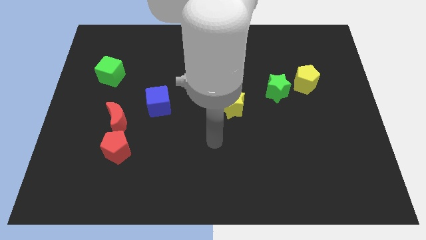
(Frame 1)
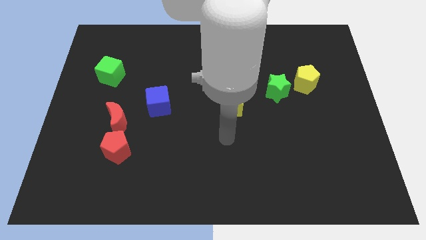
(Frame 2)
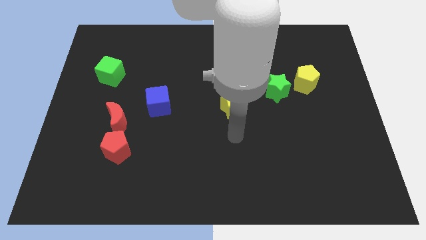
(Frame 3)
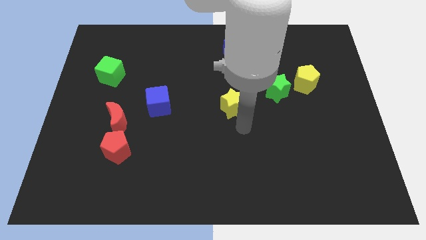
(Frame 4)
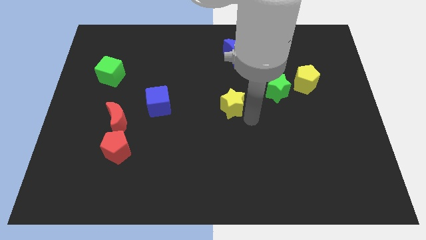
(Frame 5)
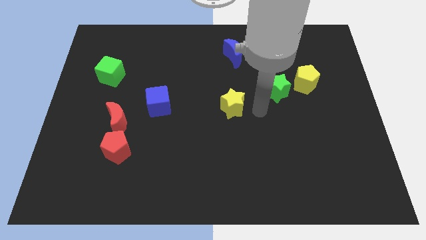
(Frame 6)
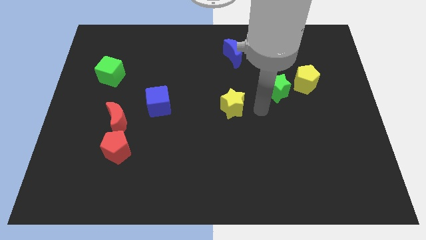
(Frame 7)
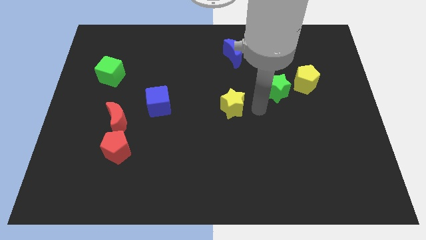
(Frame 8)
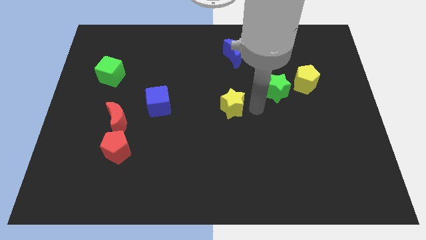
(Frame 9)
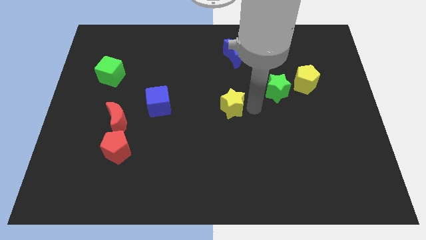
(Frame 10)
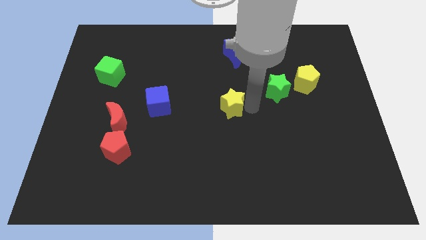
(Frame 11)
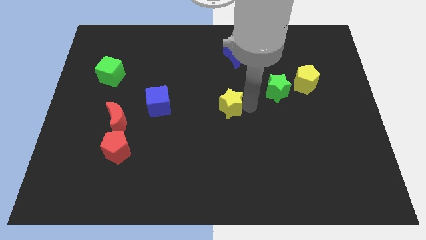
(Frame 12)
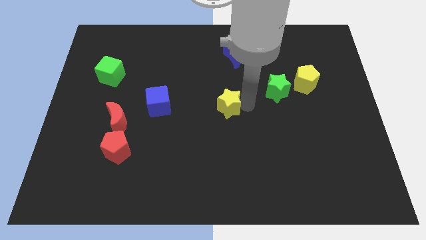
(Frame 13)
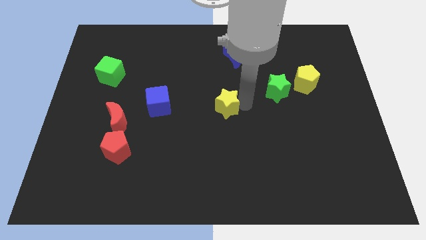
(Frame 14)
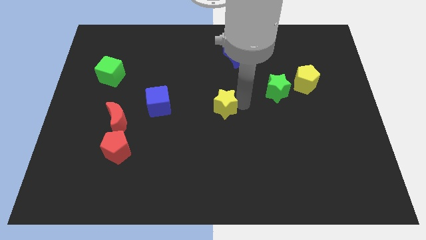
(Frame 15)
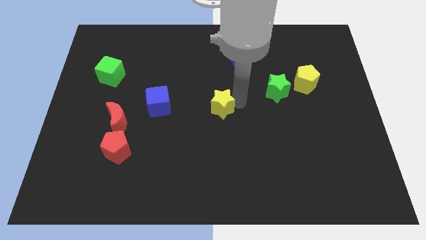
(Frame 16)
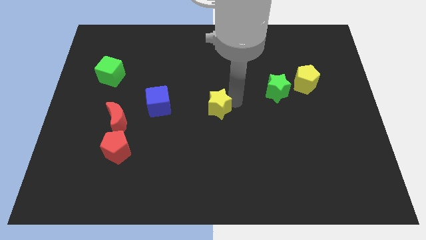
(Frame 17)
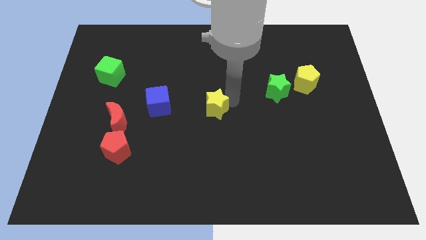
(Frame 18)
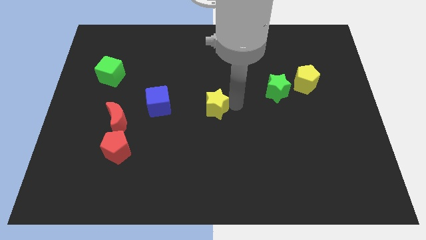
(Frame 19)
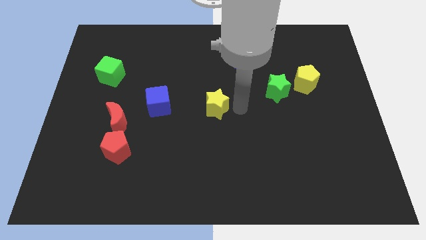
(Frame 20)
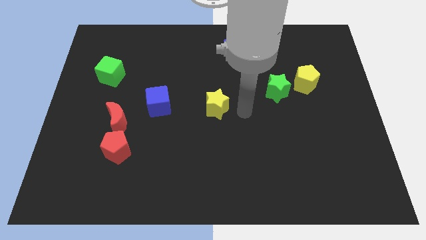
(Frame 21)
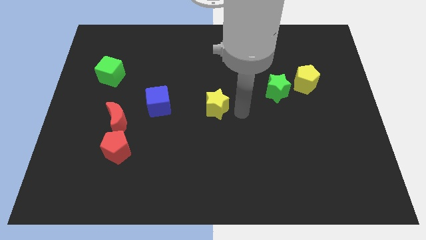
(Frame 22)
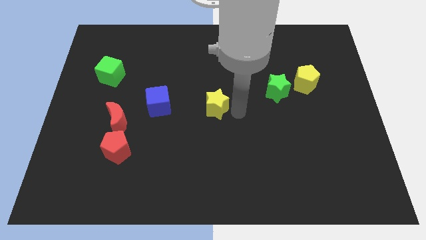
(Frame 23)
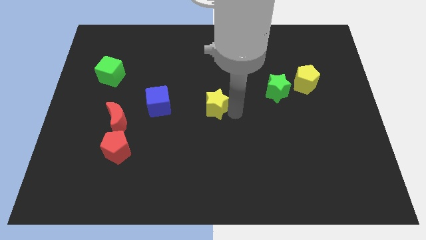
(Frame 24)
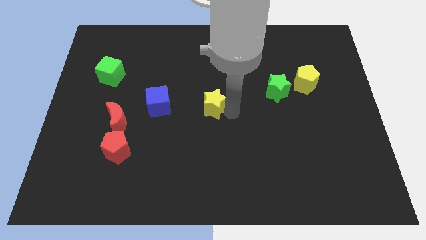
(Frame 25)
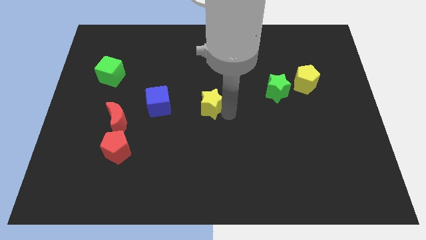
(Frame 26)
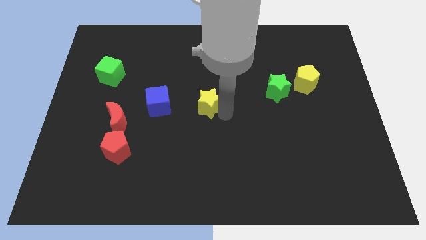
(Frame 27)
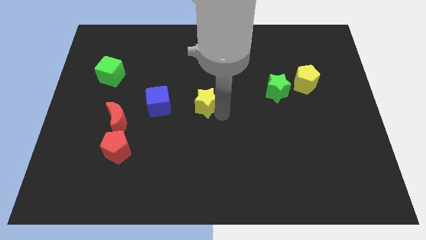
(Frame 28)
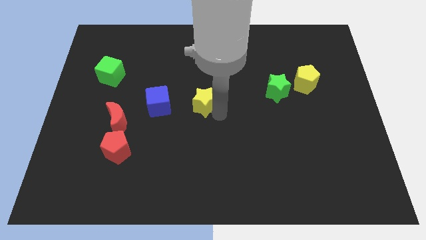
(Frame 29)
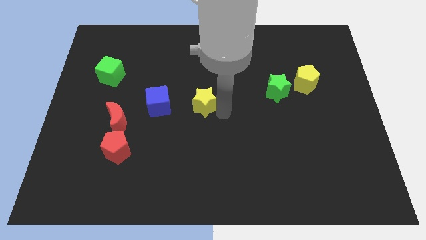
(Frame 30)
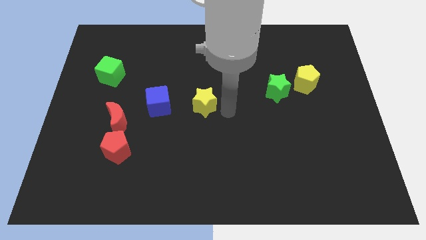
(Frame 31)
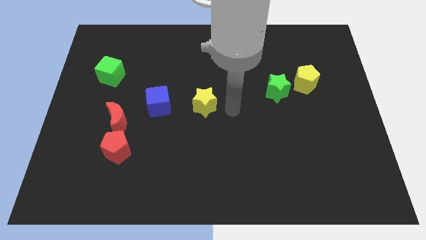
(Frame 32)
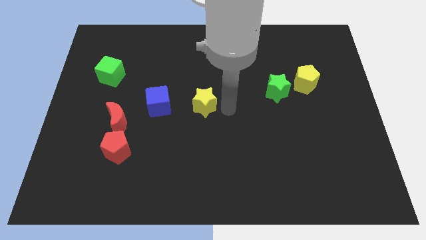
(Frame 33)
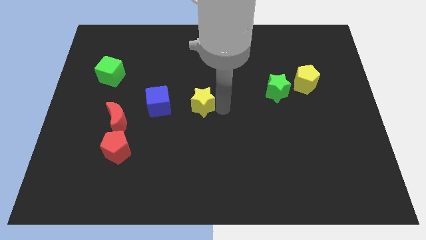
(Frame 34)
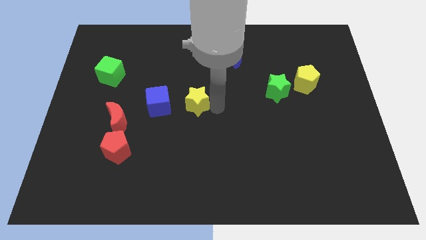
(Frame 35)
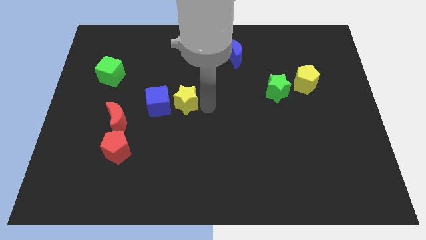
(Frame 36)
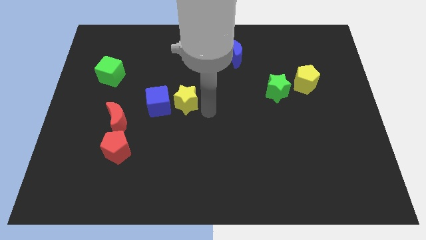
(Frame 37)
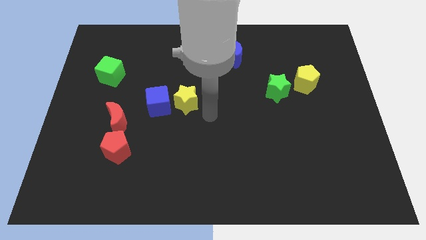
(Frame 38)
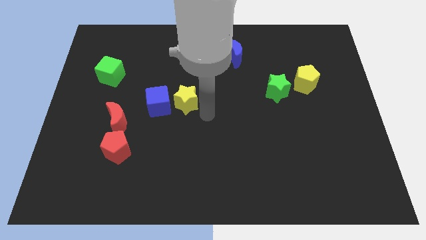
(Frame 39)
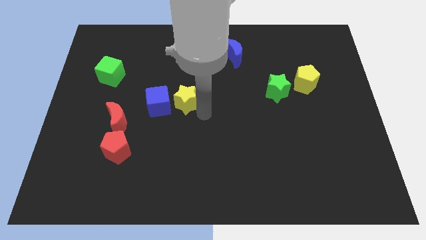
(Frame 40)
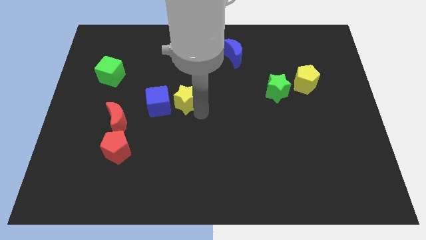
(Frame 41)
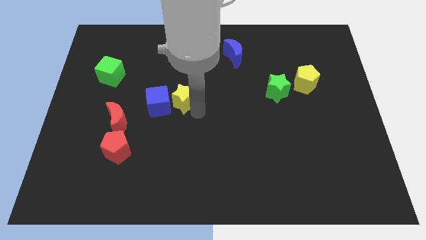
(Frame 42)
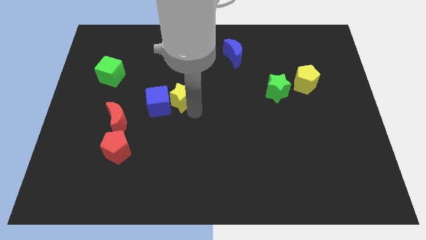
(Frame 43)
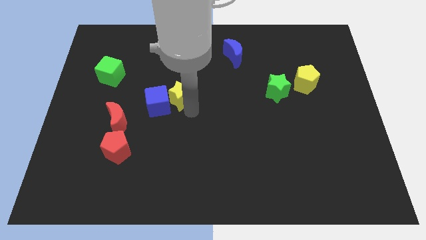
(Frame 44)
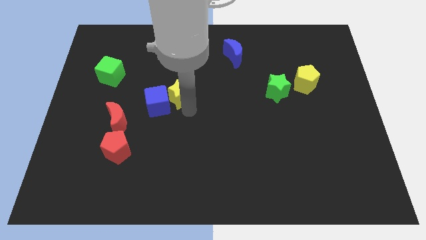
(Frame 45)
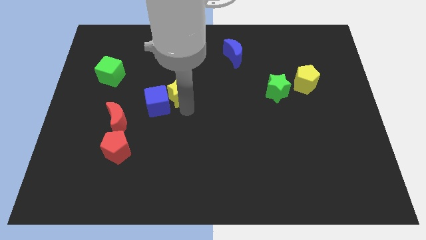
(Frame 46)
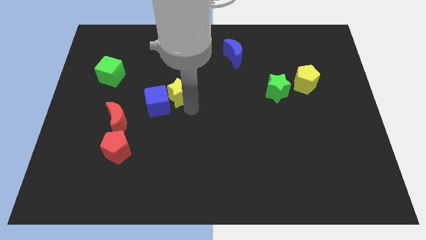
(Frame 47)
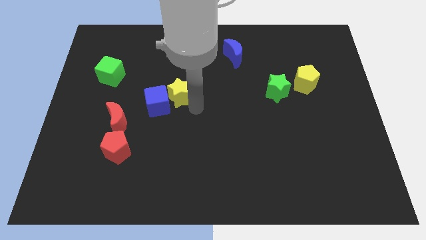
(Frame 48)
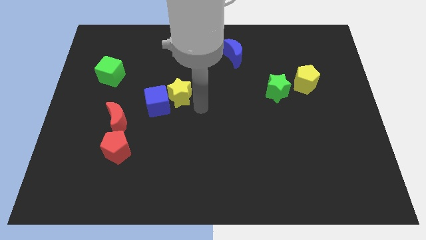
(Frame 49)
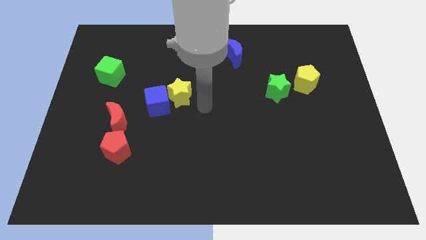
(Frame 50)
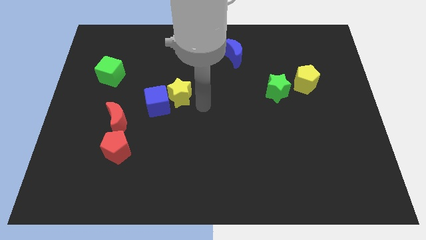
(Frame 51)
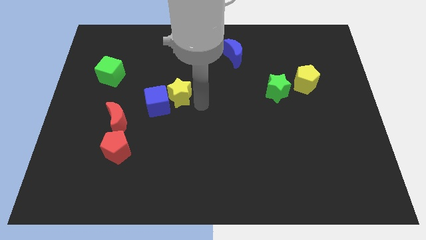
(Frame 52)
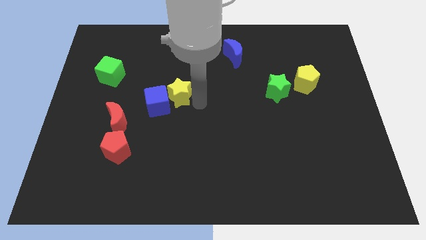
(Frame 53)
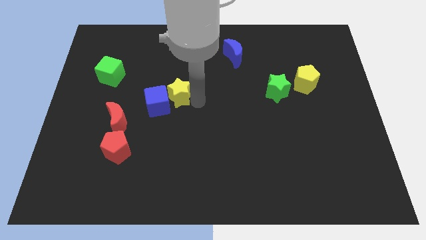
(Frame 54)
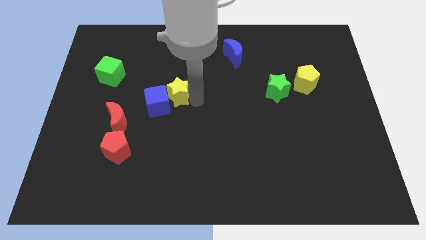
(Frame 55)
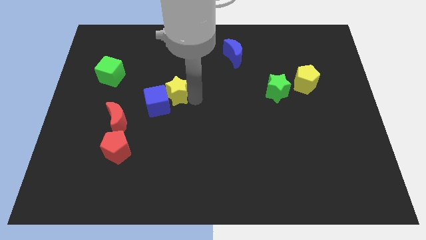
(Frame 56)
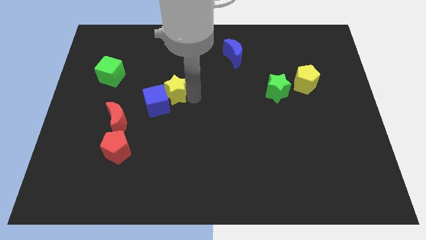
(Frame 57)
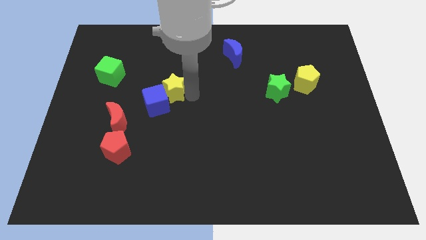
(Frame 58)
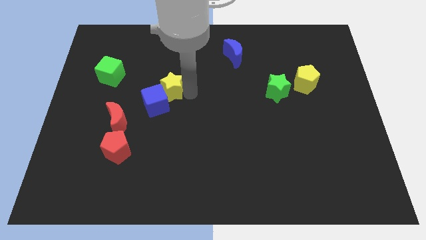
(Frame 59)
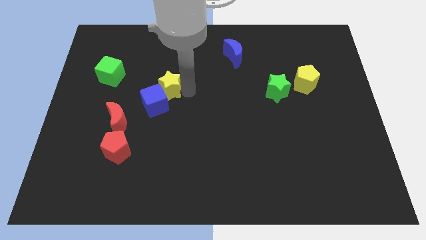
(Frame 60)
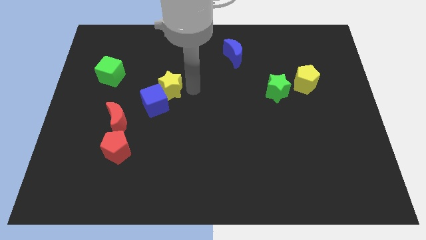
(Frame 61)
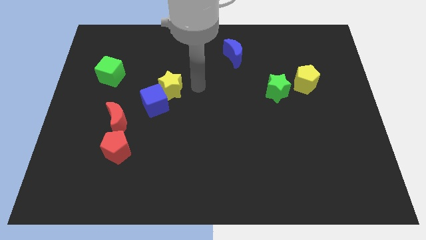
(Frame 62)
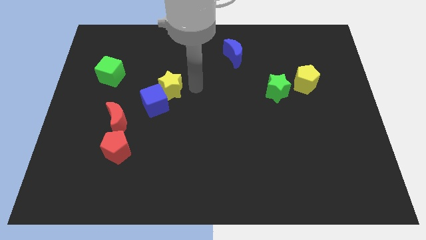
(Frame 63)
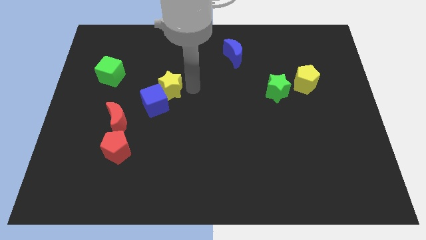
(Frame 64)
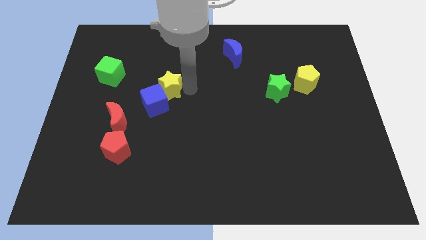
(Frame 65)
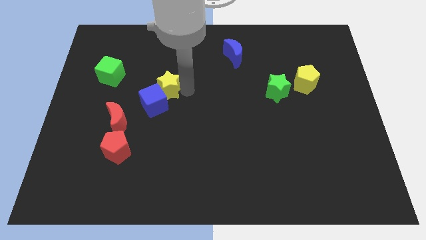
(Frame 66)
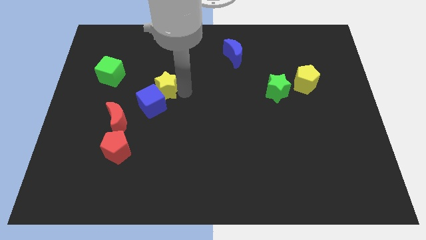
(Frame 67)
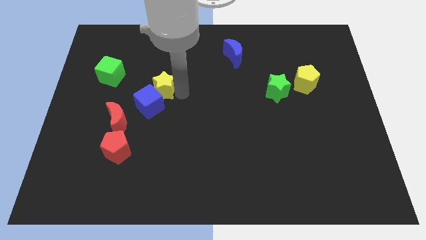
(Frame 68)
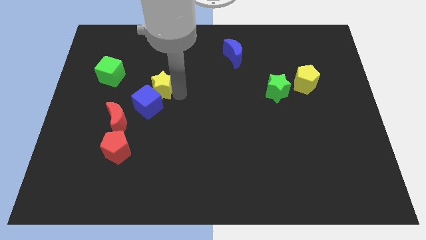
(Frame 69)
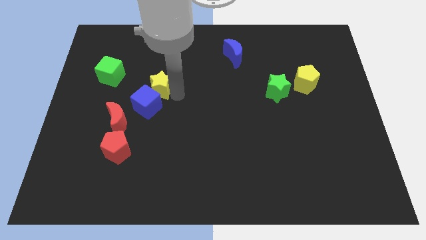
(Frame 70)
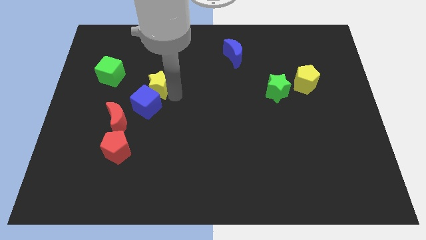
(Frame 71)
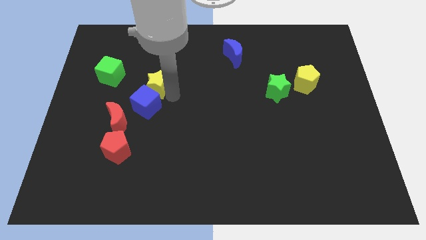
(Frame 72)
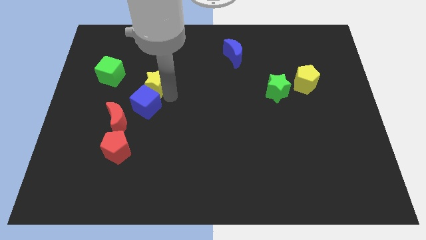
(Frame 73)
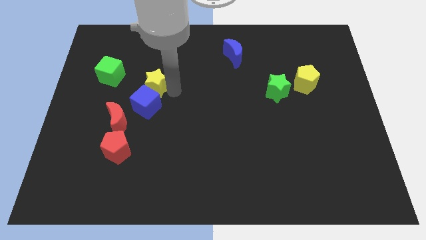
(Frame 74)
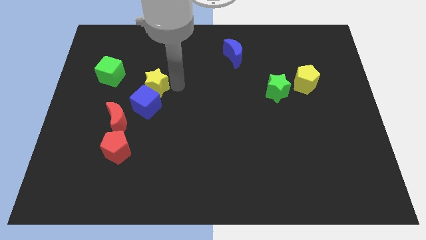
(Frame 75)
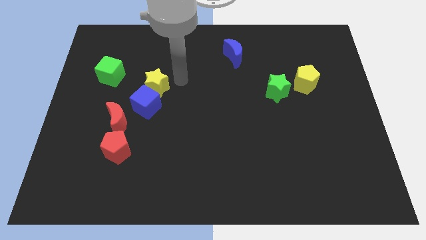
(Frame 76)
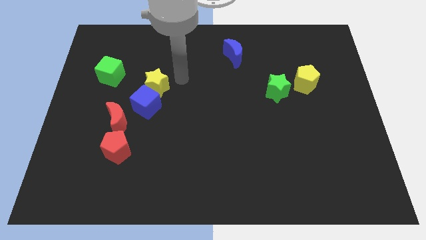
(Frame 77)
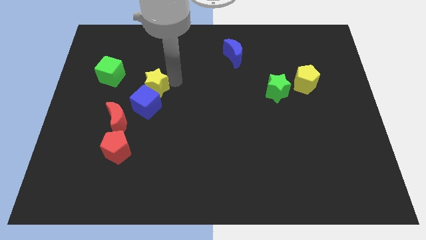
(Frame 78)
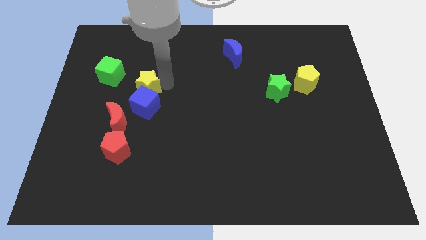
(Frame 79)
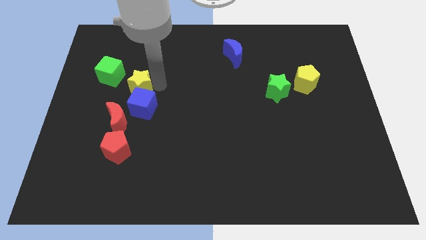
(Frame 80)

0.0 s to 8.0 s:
push the yellow star left

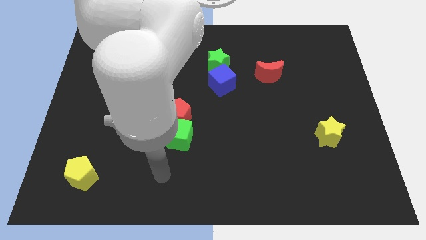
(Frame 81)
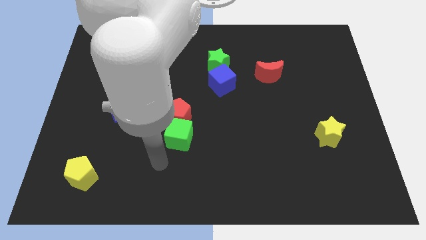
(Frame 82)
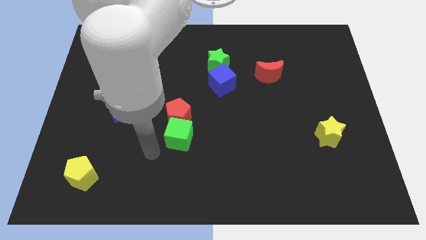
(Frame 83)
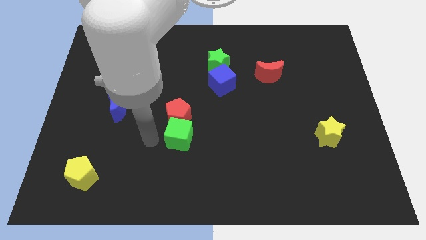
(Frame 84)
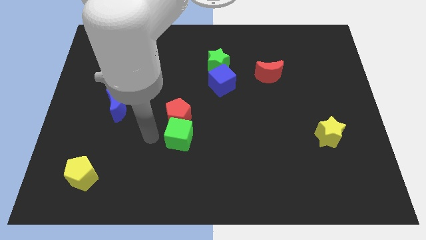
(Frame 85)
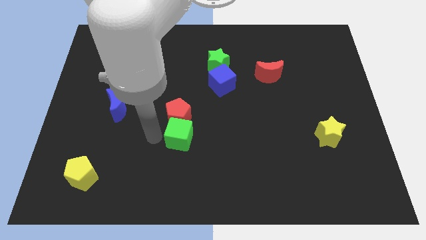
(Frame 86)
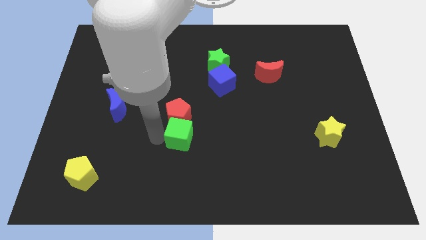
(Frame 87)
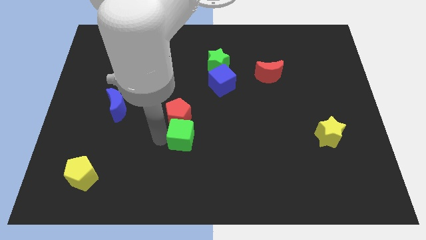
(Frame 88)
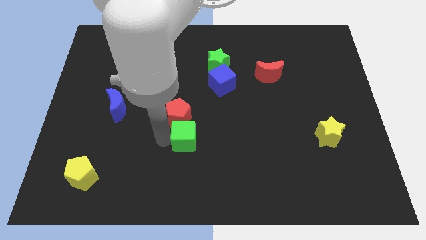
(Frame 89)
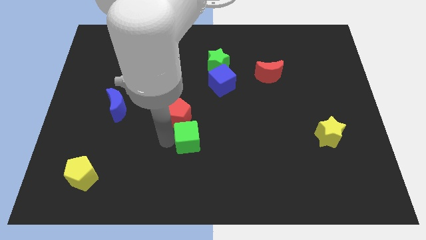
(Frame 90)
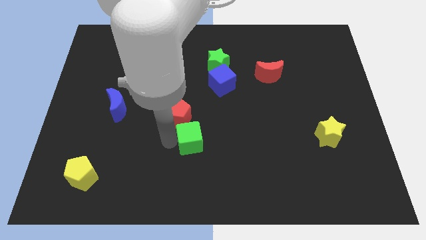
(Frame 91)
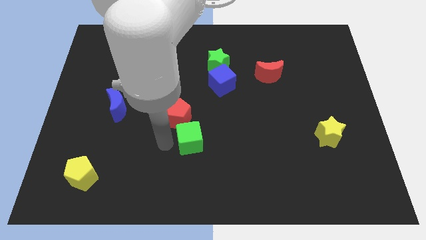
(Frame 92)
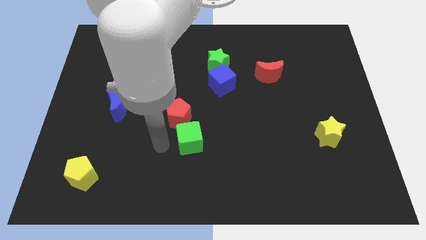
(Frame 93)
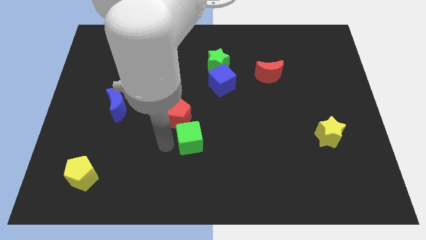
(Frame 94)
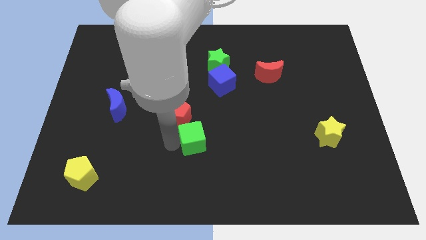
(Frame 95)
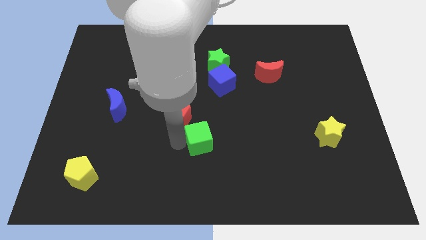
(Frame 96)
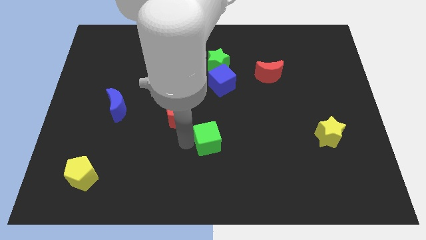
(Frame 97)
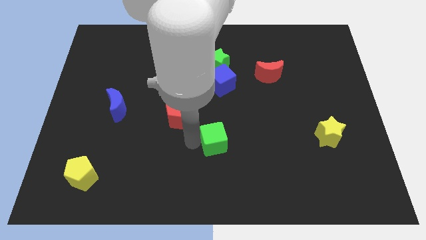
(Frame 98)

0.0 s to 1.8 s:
slightly slide the green cube to the right
